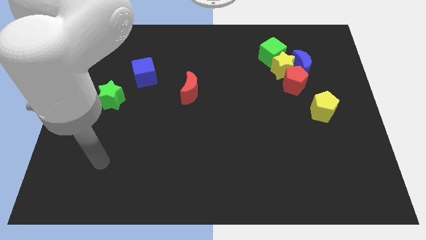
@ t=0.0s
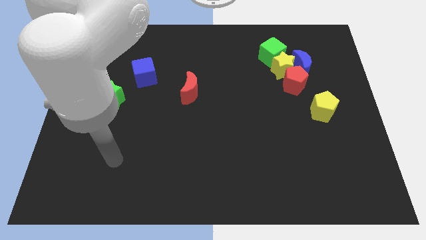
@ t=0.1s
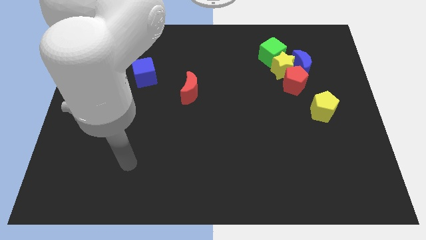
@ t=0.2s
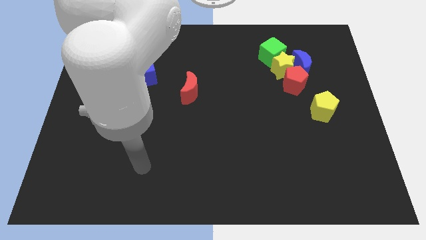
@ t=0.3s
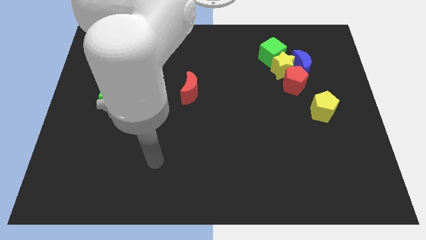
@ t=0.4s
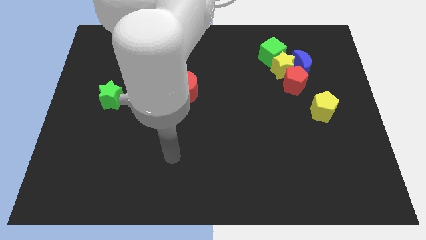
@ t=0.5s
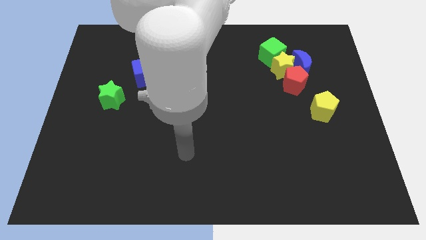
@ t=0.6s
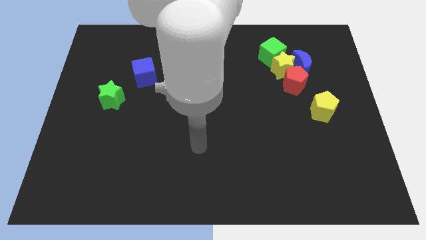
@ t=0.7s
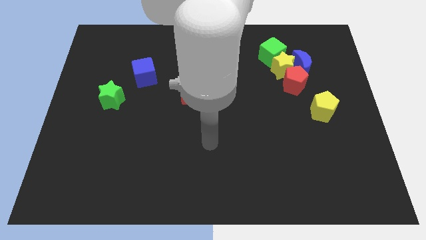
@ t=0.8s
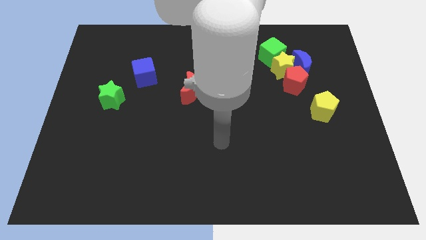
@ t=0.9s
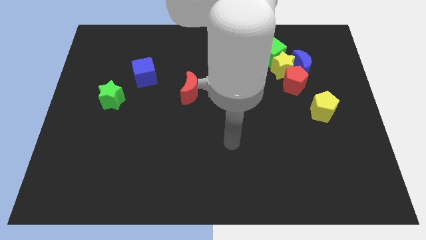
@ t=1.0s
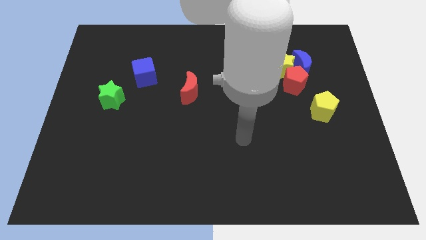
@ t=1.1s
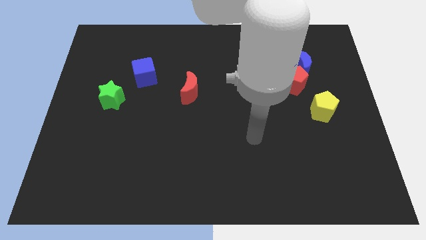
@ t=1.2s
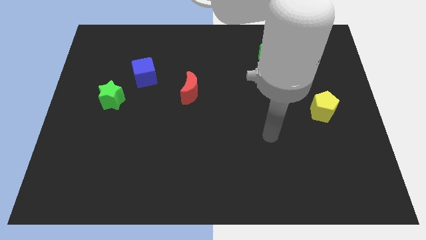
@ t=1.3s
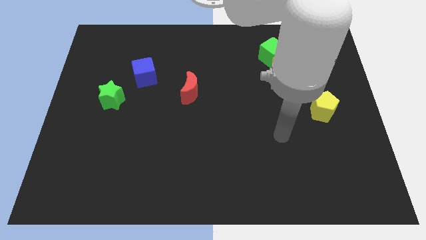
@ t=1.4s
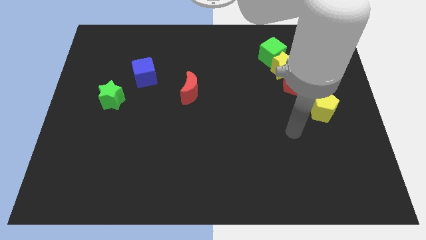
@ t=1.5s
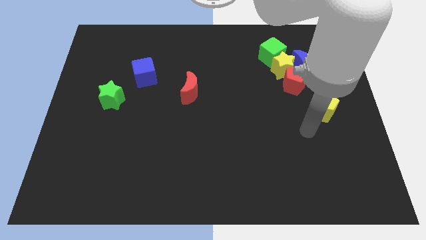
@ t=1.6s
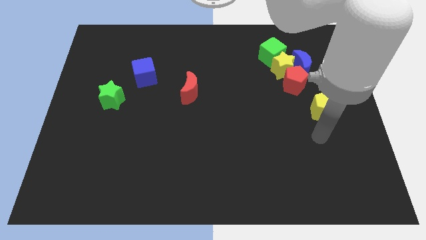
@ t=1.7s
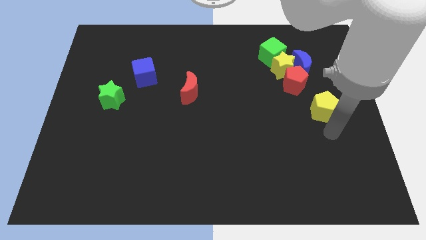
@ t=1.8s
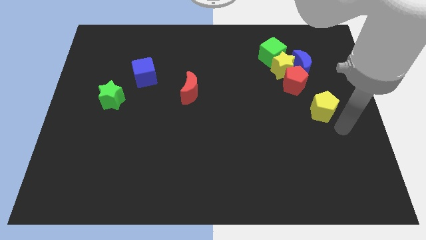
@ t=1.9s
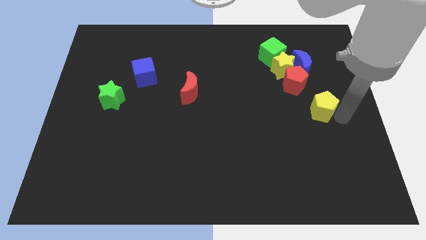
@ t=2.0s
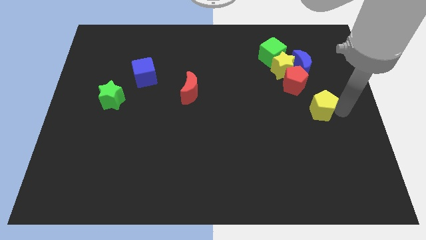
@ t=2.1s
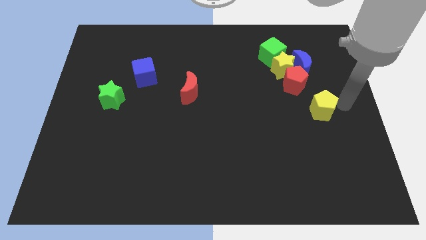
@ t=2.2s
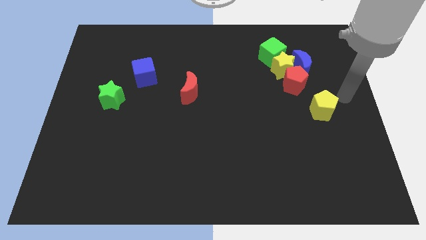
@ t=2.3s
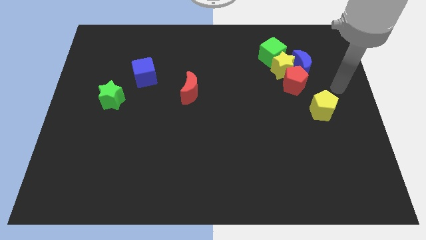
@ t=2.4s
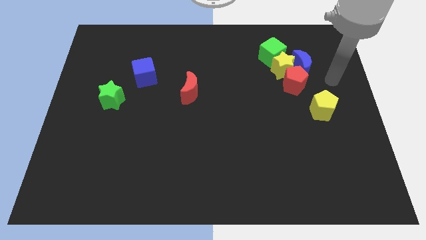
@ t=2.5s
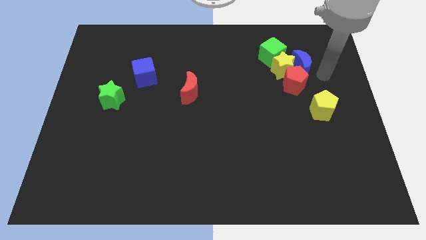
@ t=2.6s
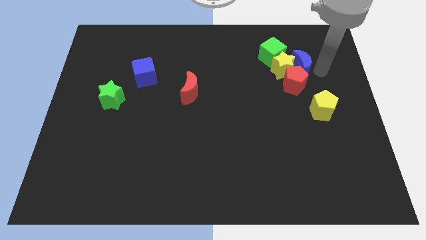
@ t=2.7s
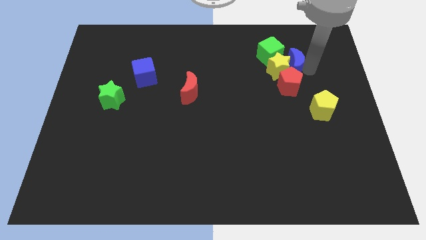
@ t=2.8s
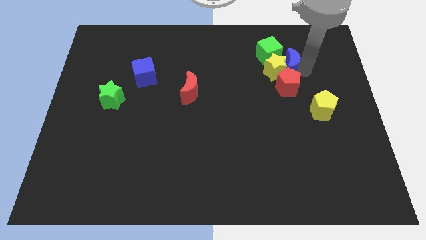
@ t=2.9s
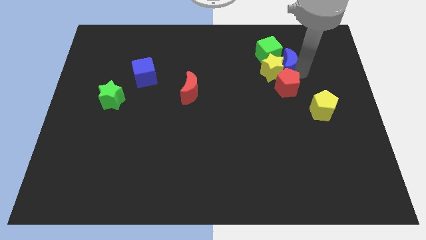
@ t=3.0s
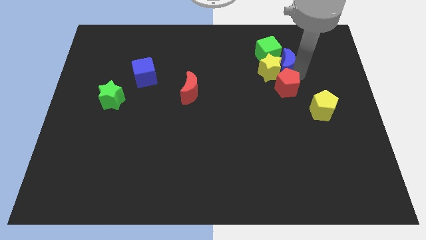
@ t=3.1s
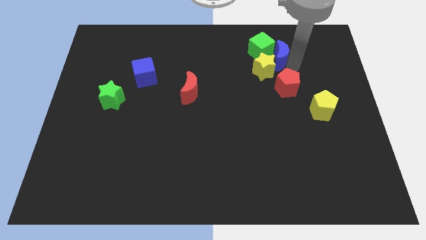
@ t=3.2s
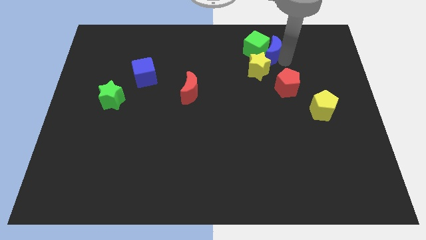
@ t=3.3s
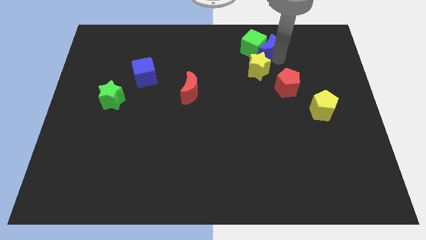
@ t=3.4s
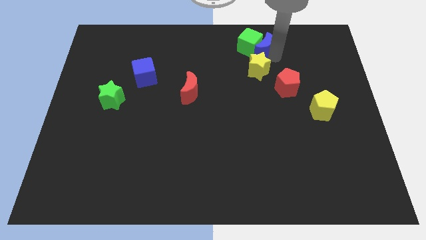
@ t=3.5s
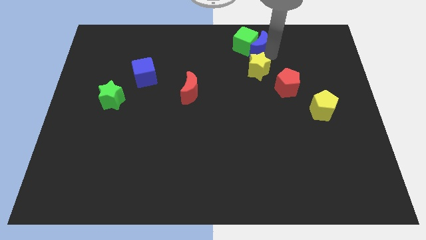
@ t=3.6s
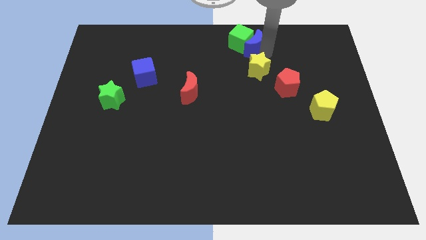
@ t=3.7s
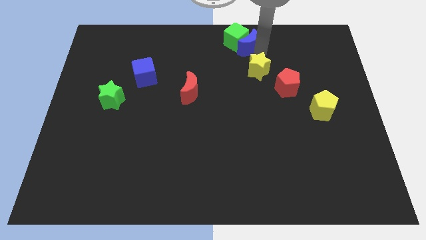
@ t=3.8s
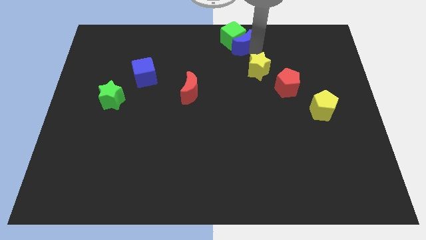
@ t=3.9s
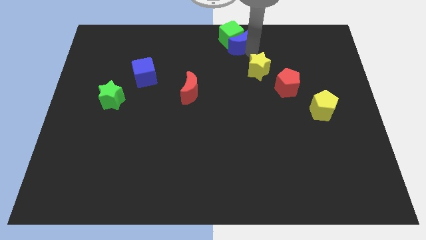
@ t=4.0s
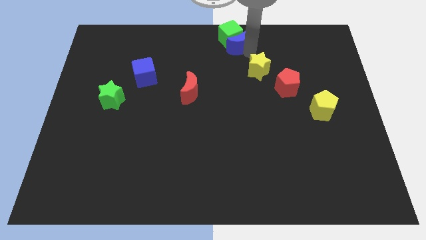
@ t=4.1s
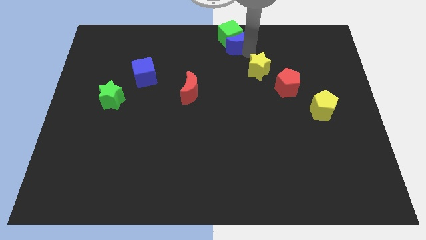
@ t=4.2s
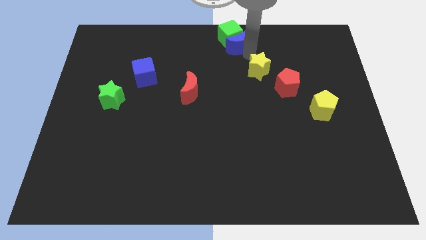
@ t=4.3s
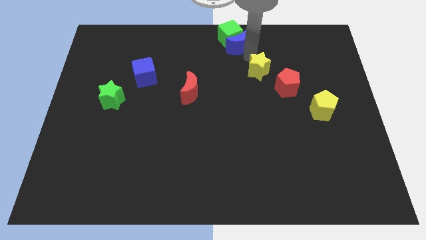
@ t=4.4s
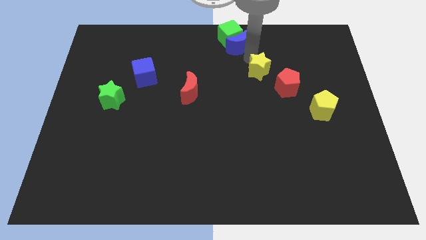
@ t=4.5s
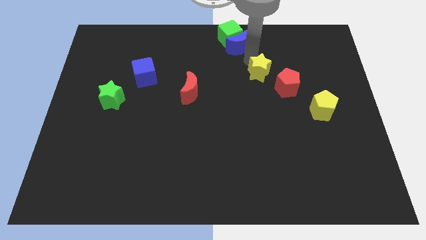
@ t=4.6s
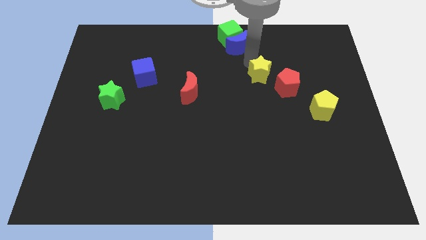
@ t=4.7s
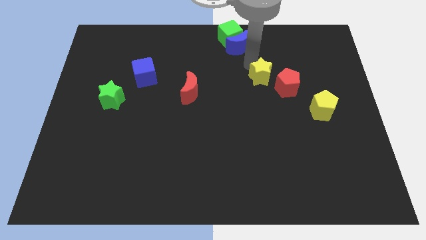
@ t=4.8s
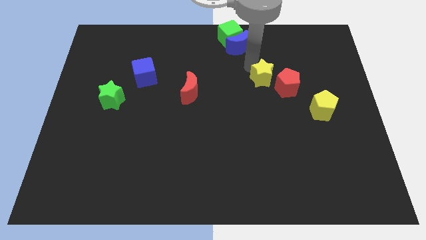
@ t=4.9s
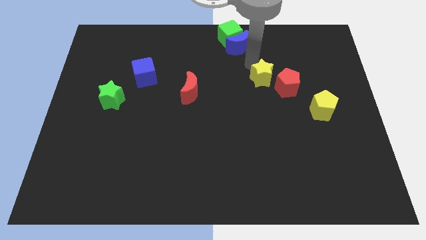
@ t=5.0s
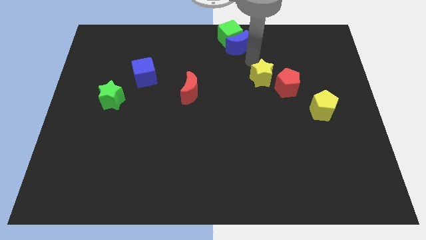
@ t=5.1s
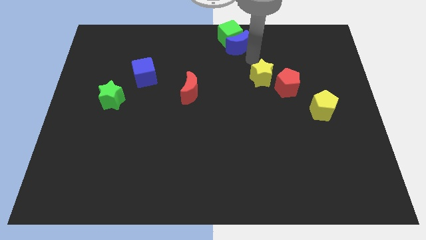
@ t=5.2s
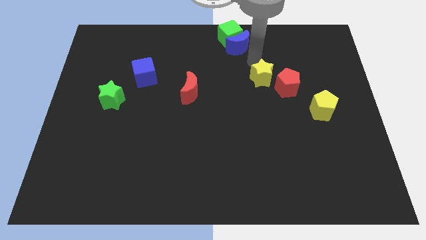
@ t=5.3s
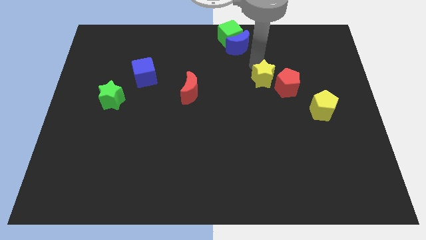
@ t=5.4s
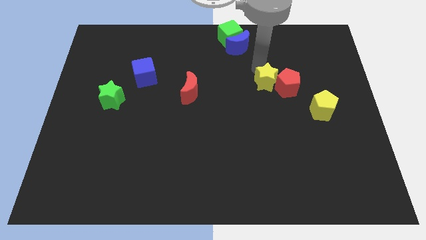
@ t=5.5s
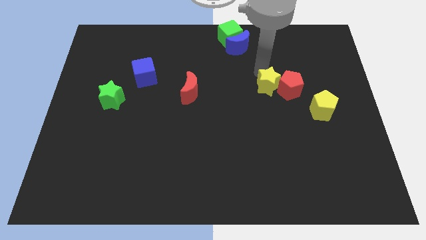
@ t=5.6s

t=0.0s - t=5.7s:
move the yellow star away from the blue moon, red pentagon, and green cube

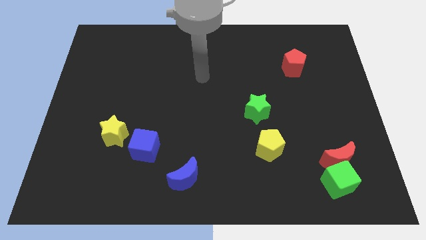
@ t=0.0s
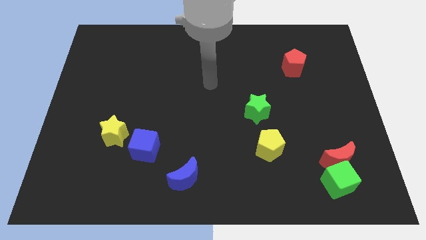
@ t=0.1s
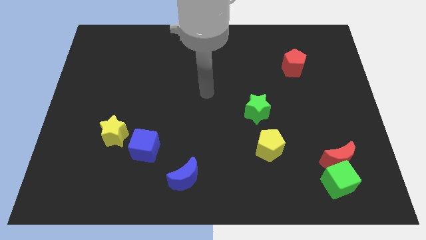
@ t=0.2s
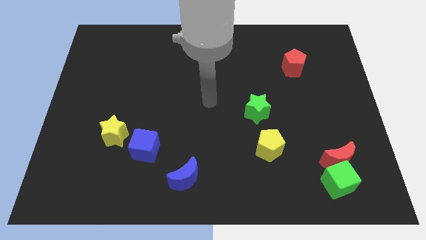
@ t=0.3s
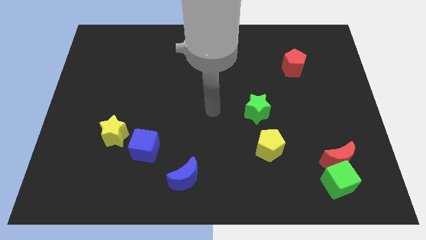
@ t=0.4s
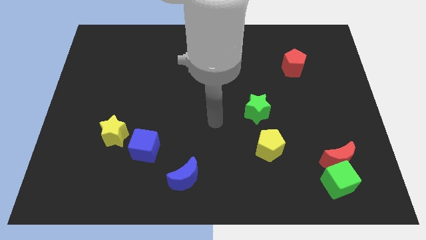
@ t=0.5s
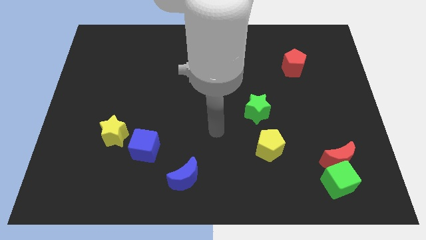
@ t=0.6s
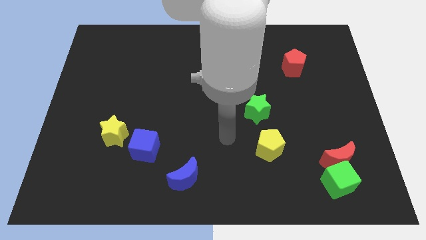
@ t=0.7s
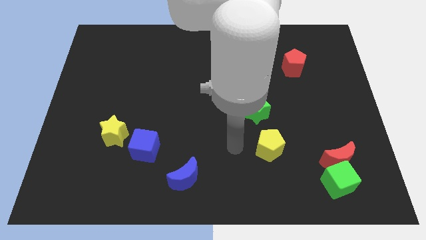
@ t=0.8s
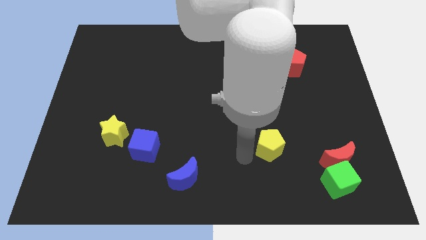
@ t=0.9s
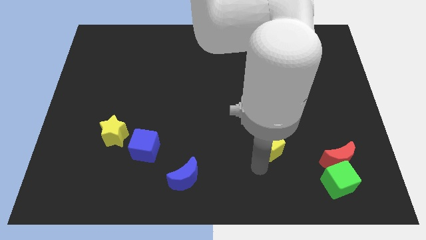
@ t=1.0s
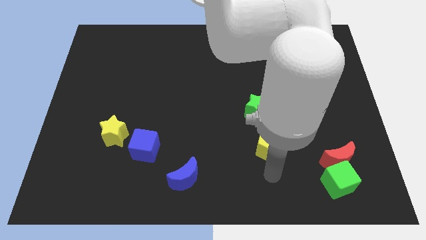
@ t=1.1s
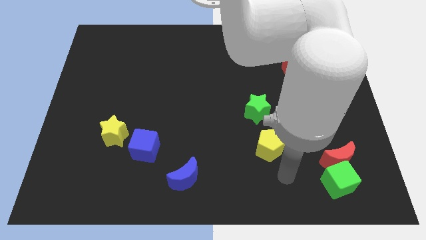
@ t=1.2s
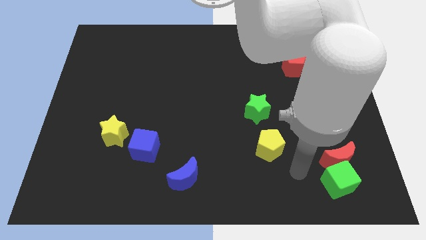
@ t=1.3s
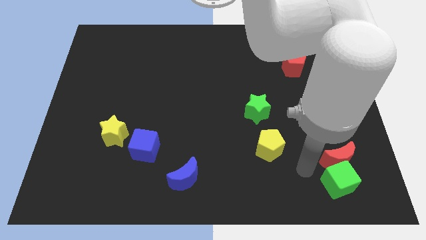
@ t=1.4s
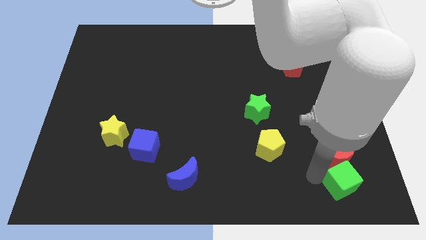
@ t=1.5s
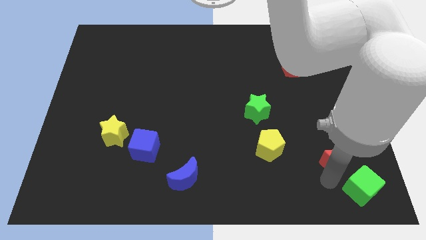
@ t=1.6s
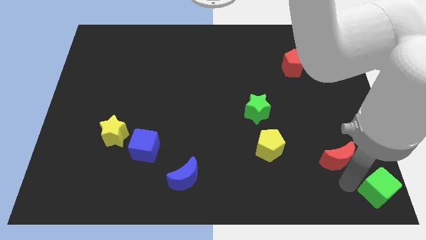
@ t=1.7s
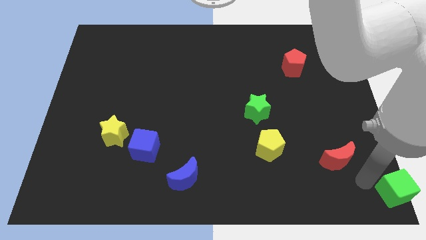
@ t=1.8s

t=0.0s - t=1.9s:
separate the red moon from the green cube

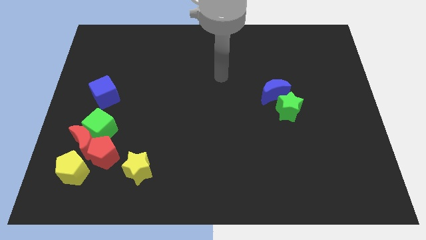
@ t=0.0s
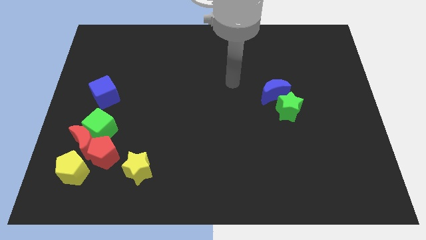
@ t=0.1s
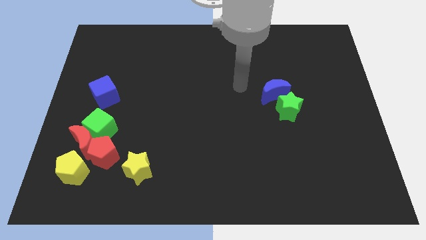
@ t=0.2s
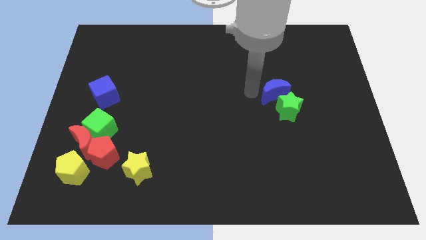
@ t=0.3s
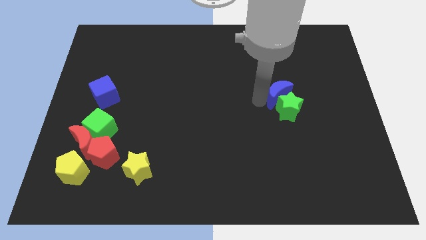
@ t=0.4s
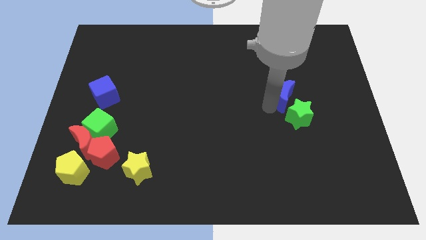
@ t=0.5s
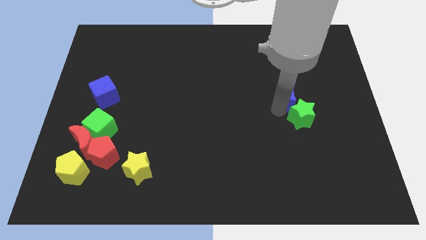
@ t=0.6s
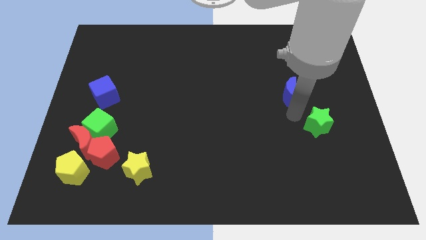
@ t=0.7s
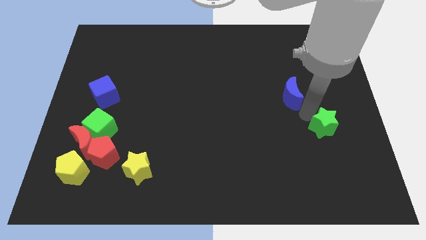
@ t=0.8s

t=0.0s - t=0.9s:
move the blue moon away from the green star

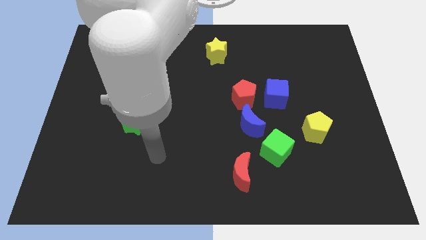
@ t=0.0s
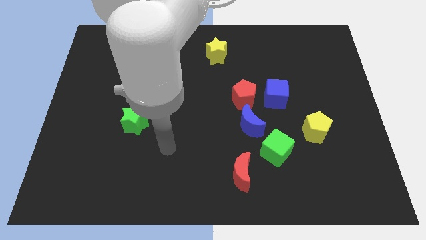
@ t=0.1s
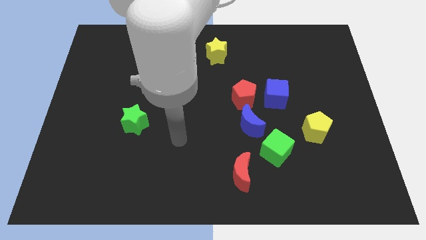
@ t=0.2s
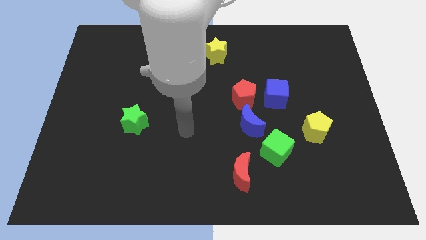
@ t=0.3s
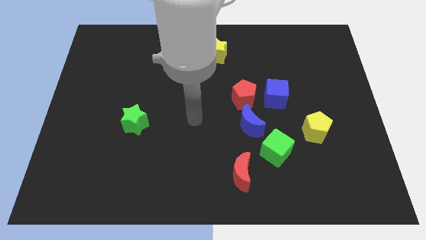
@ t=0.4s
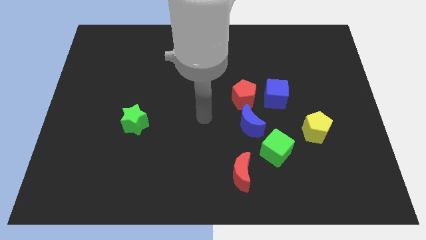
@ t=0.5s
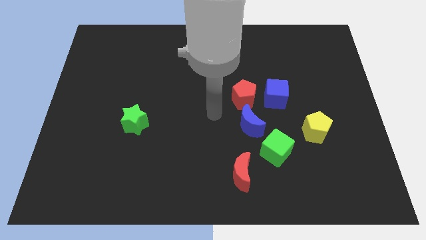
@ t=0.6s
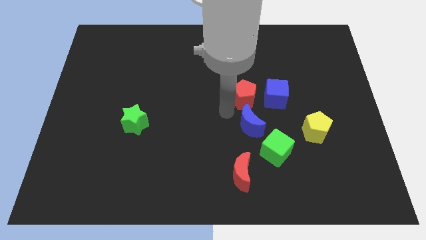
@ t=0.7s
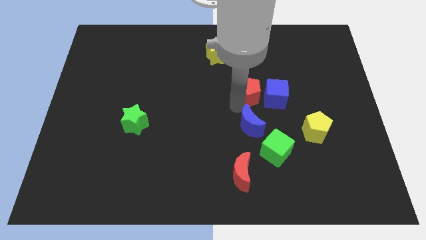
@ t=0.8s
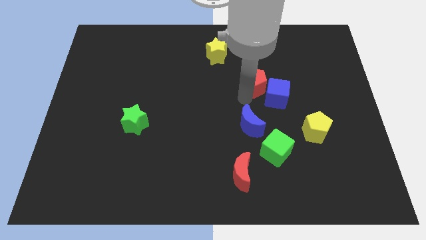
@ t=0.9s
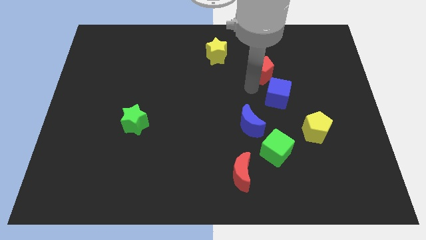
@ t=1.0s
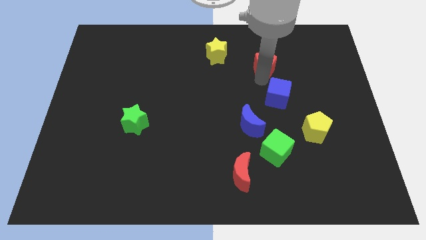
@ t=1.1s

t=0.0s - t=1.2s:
move the blue cube away from the red pentagon
